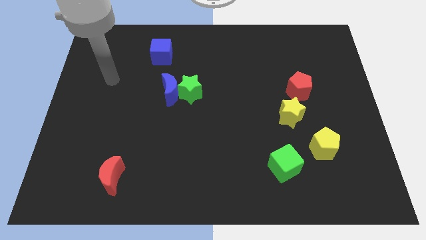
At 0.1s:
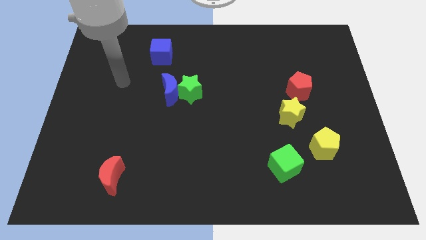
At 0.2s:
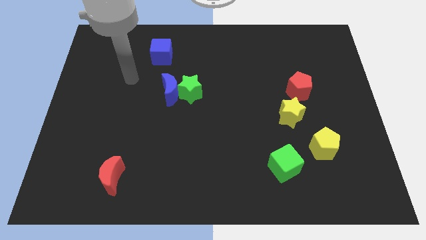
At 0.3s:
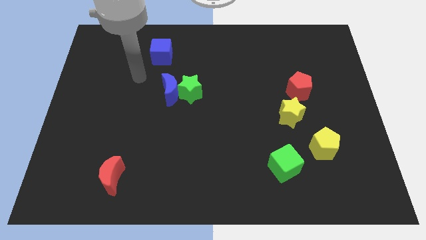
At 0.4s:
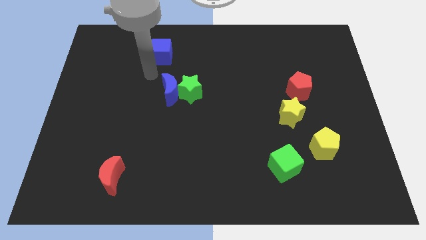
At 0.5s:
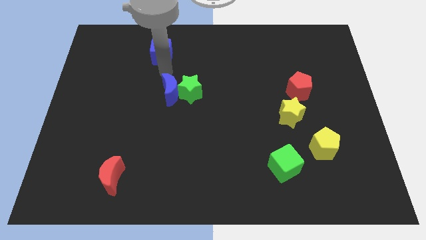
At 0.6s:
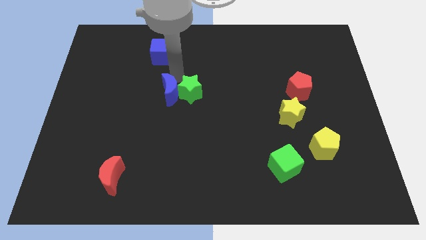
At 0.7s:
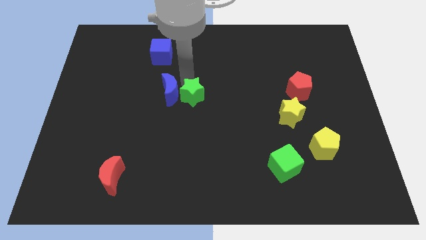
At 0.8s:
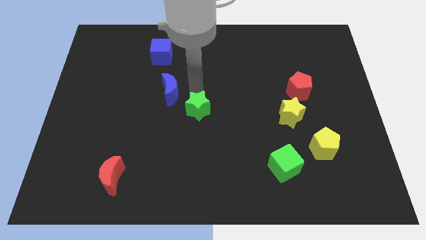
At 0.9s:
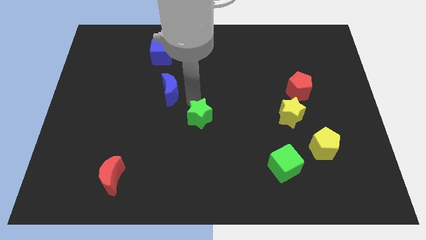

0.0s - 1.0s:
separate the blue moon from the green star

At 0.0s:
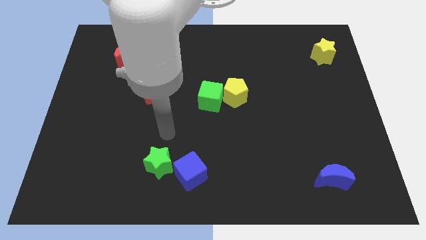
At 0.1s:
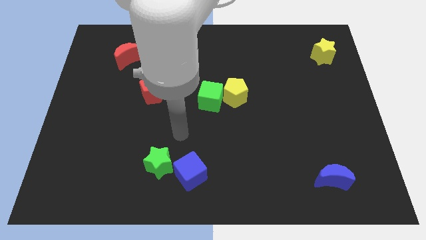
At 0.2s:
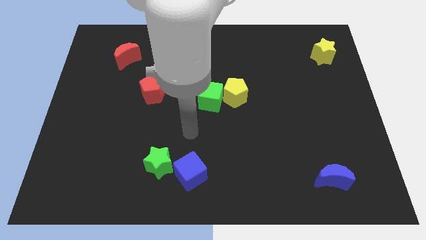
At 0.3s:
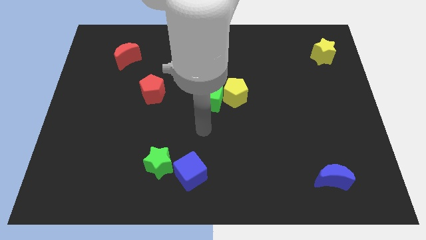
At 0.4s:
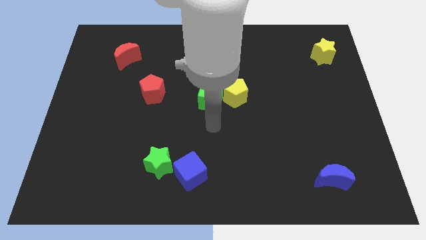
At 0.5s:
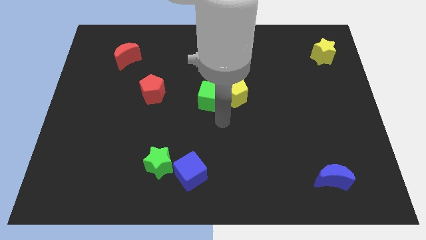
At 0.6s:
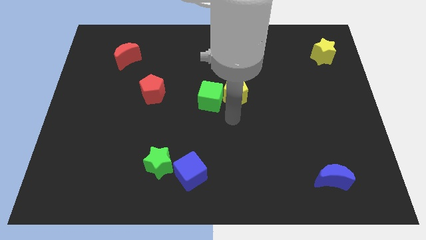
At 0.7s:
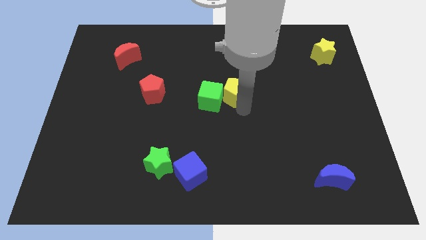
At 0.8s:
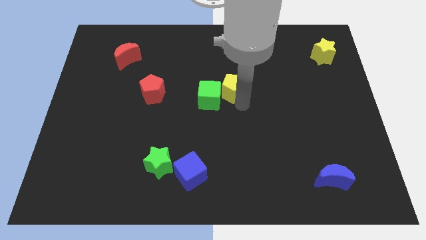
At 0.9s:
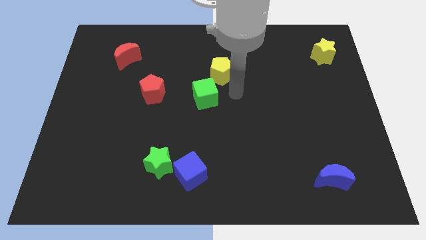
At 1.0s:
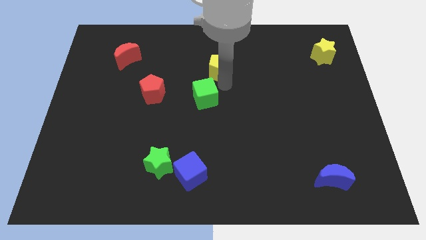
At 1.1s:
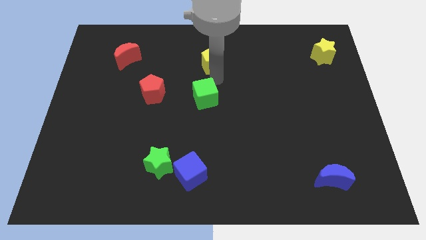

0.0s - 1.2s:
separate the green cube from the yellow pentagon

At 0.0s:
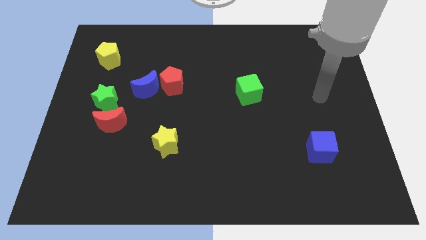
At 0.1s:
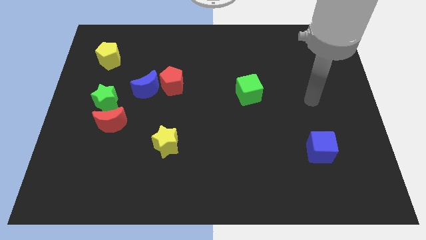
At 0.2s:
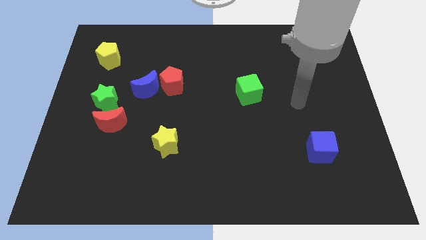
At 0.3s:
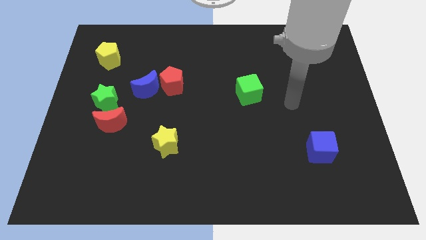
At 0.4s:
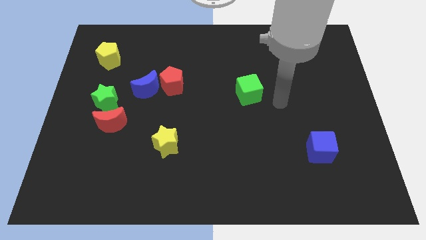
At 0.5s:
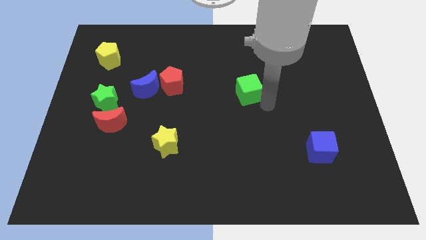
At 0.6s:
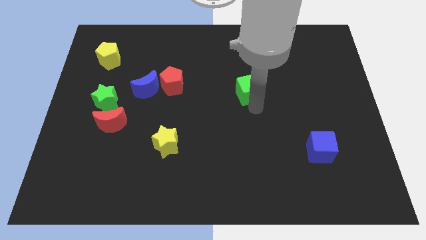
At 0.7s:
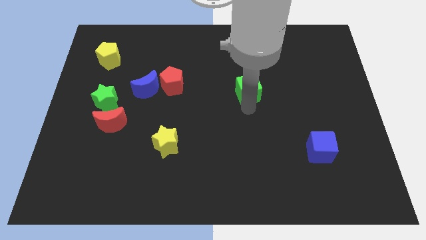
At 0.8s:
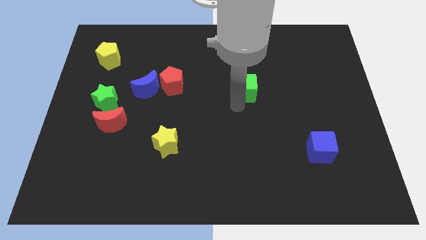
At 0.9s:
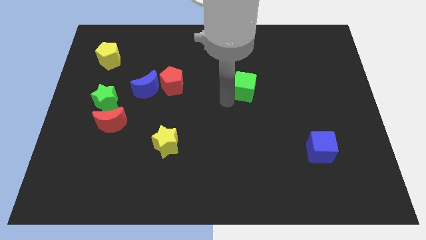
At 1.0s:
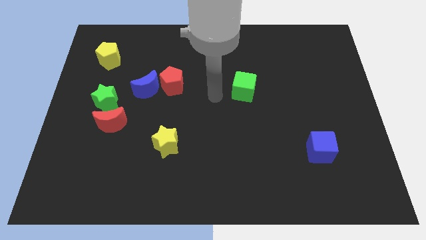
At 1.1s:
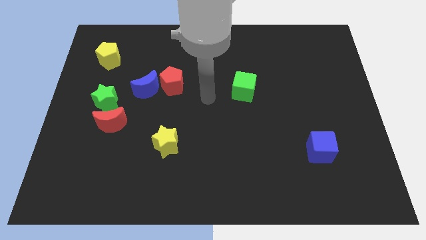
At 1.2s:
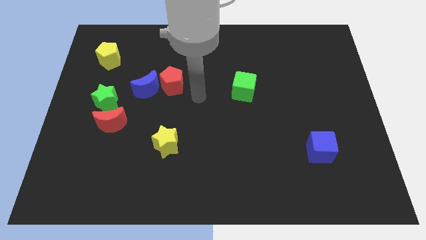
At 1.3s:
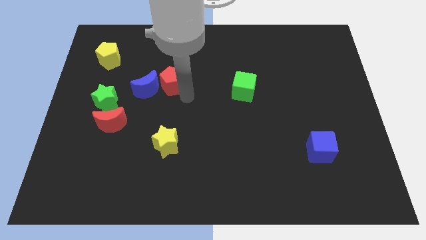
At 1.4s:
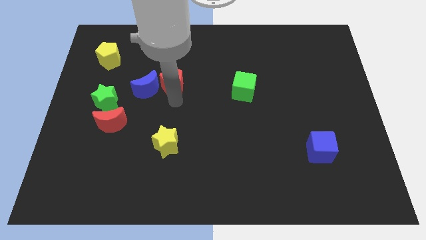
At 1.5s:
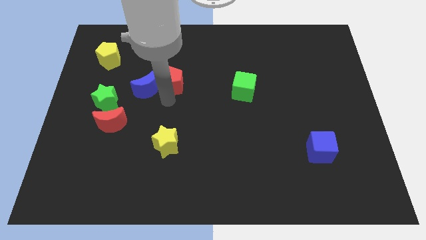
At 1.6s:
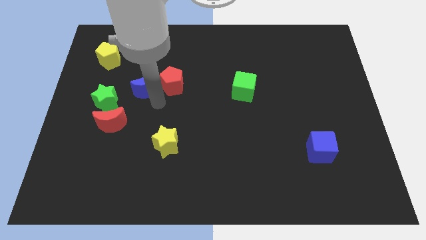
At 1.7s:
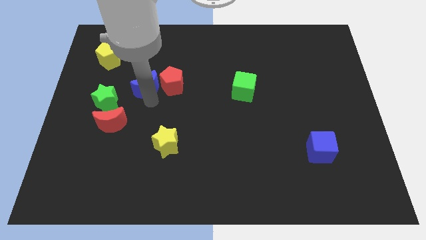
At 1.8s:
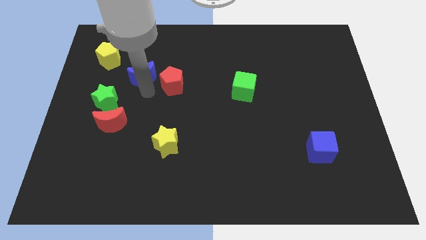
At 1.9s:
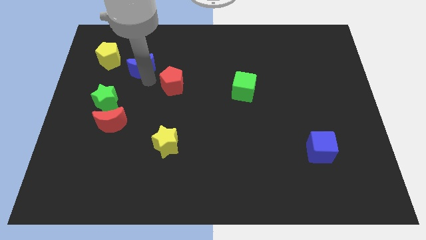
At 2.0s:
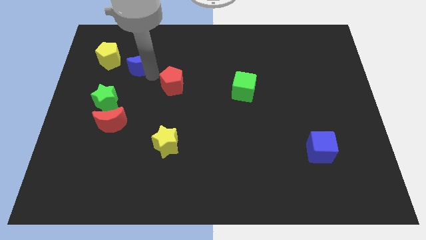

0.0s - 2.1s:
pull the red pentagon apart from the blue moon

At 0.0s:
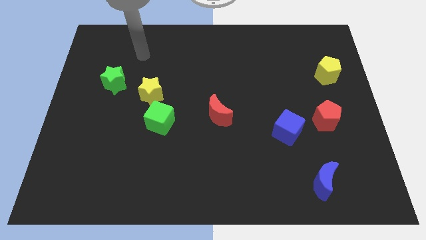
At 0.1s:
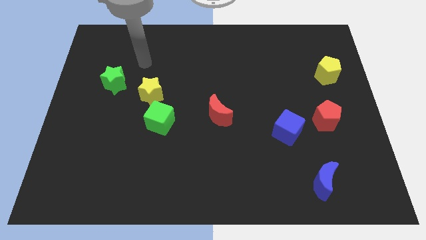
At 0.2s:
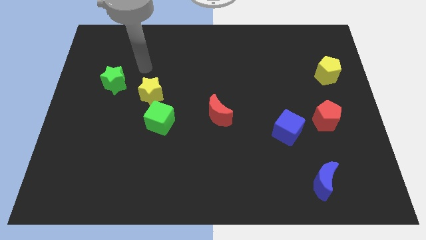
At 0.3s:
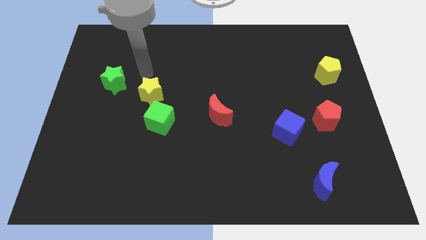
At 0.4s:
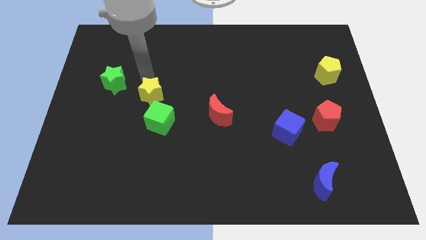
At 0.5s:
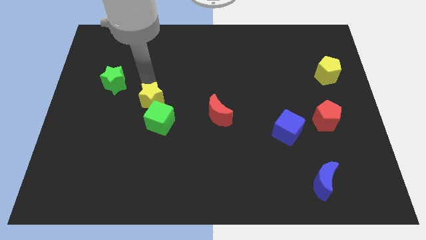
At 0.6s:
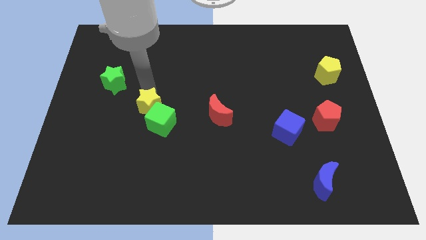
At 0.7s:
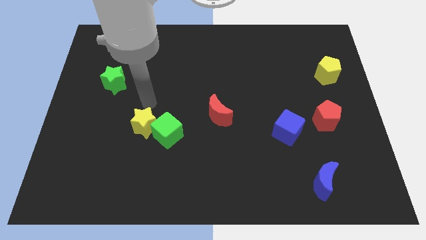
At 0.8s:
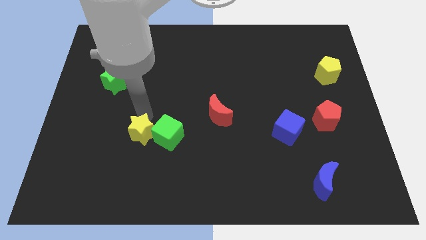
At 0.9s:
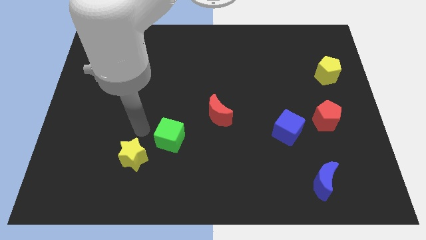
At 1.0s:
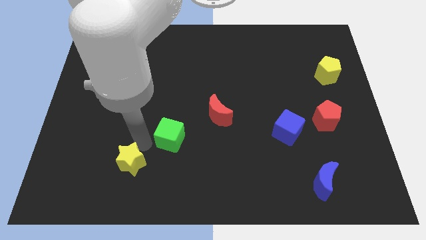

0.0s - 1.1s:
pull the green cube apart from the yellow star

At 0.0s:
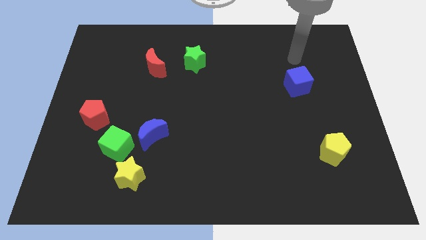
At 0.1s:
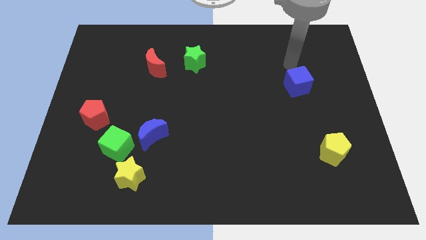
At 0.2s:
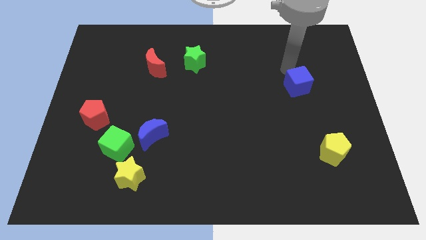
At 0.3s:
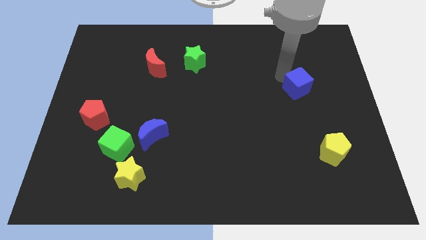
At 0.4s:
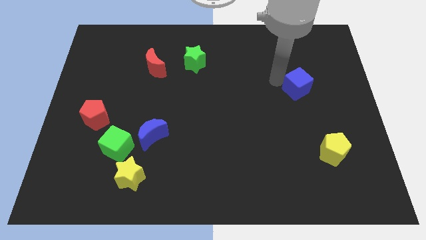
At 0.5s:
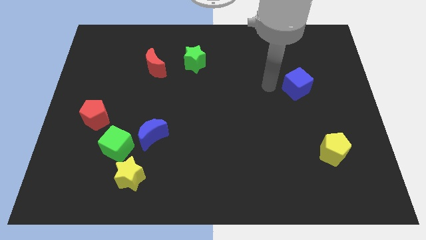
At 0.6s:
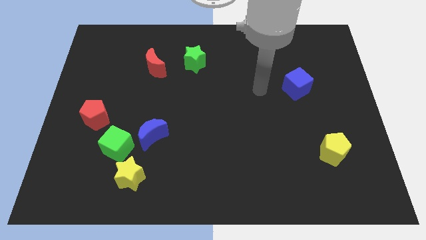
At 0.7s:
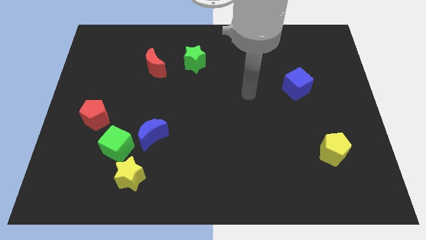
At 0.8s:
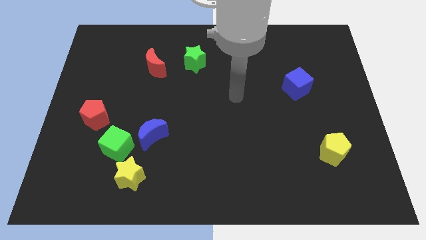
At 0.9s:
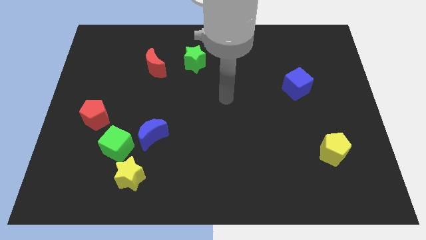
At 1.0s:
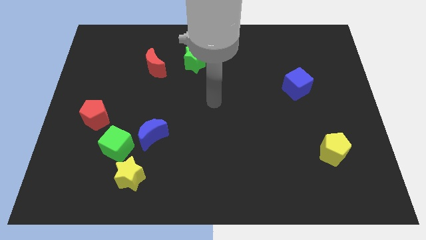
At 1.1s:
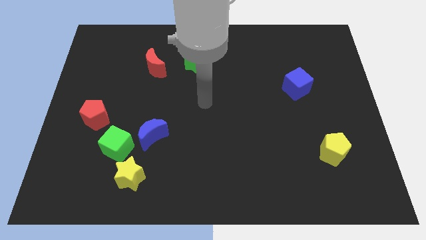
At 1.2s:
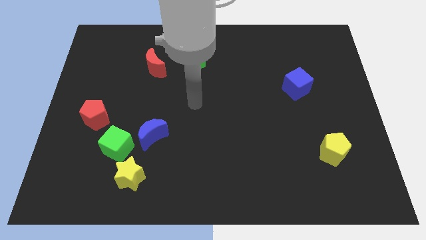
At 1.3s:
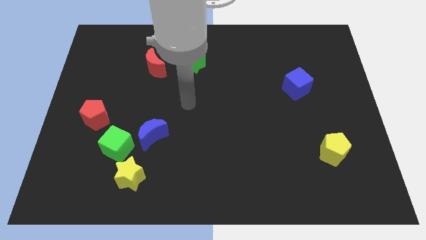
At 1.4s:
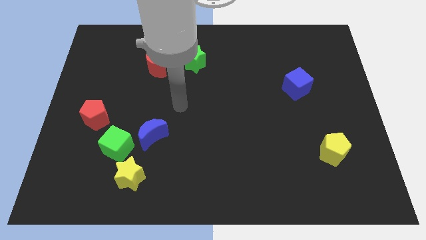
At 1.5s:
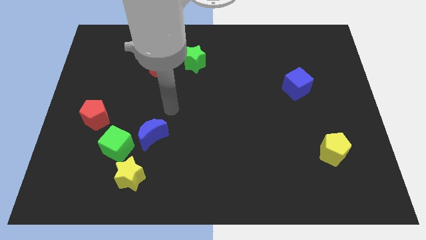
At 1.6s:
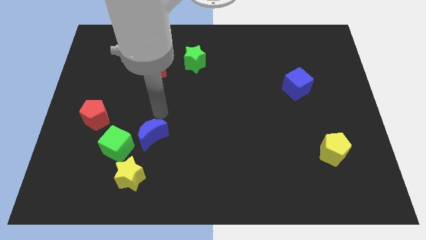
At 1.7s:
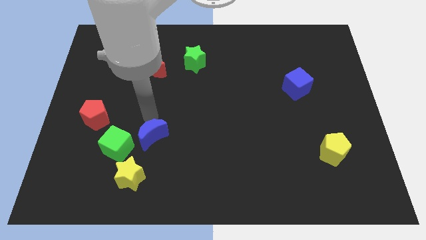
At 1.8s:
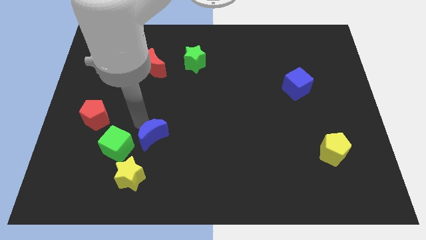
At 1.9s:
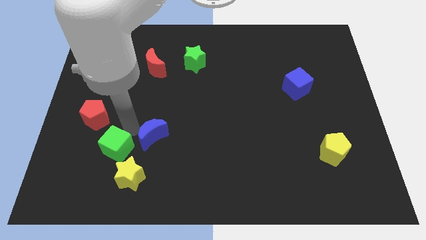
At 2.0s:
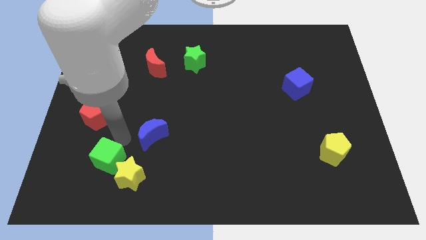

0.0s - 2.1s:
pull the blue moon apart from the green cube

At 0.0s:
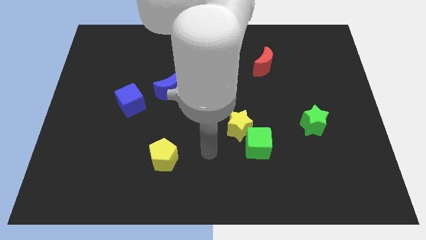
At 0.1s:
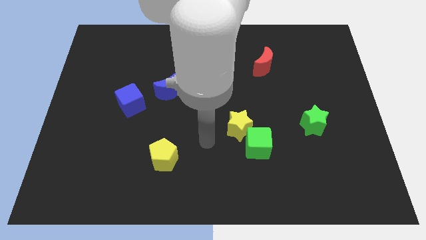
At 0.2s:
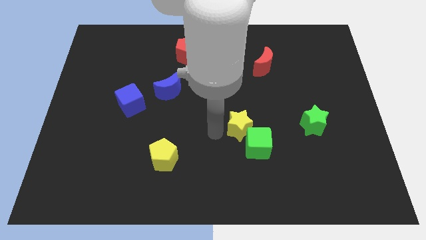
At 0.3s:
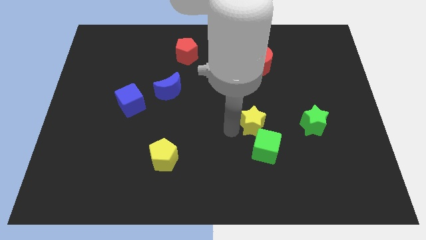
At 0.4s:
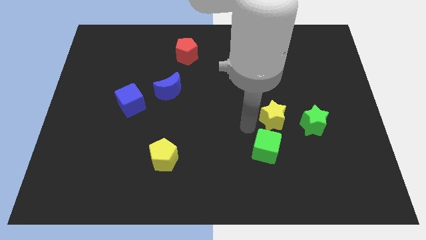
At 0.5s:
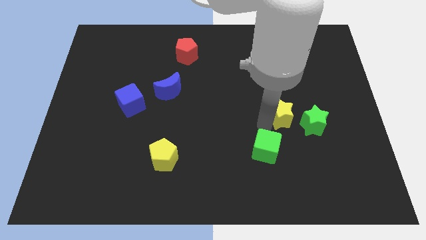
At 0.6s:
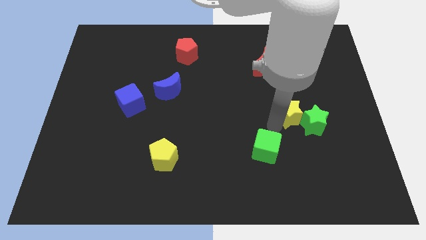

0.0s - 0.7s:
move the green cube away from the yellow star

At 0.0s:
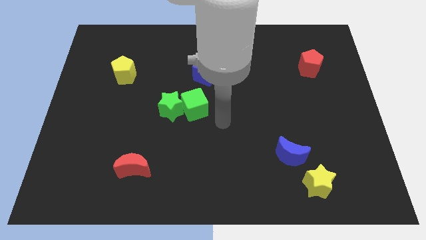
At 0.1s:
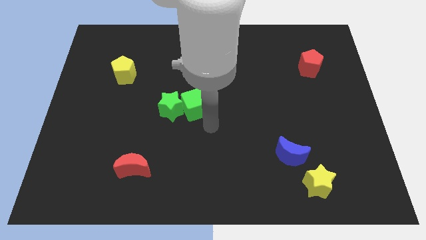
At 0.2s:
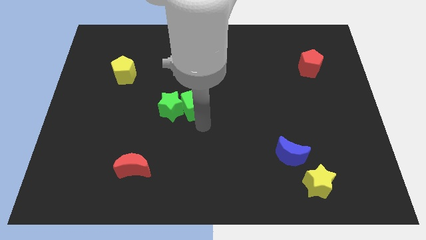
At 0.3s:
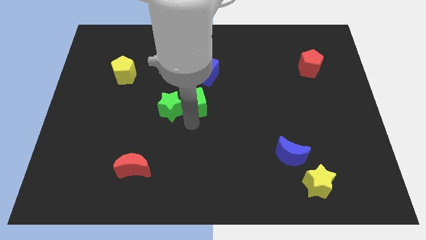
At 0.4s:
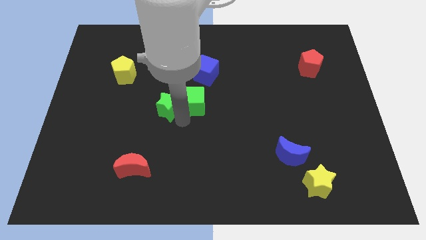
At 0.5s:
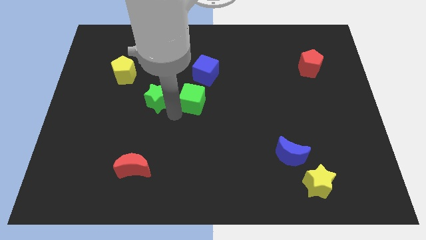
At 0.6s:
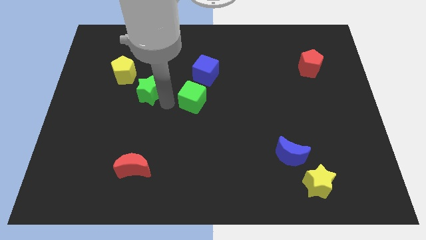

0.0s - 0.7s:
move the green cube away from the green star

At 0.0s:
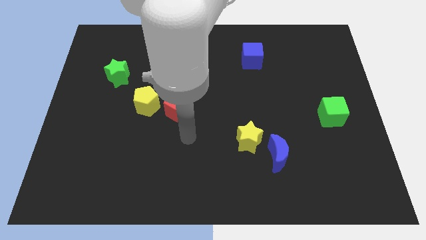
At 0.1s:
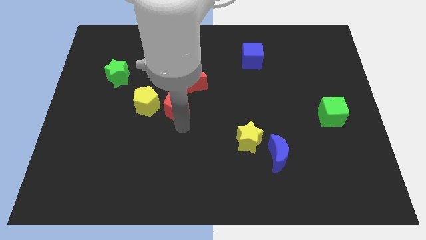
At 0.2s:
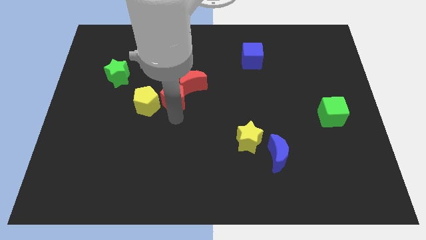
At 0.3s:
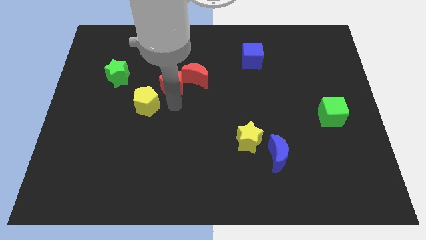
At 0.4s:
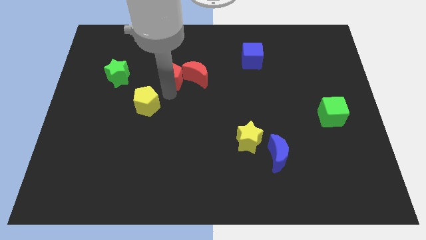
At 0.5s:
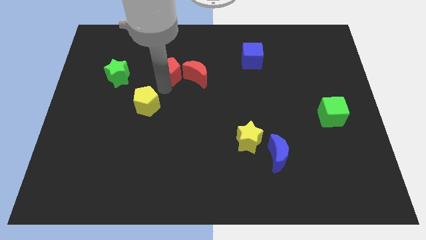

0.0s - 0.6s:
separate the yellow pentagon from the red pentagon

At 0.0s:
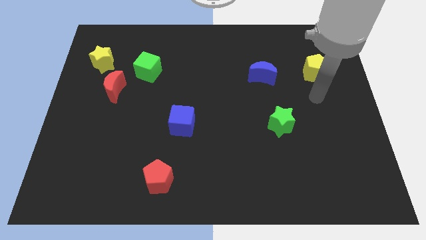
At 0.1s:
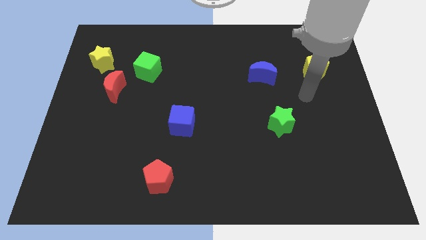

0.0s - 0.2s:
separate the green cube from the red moon
